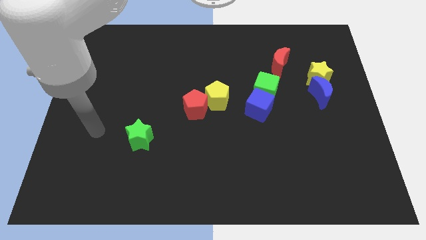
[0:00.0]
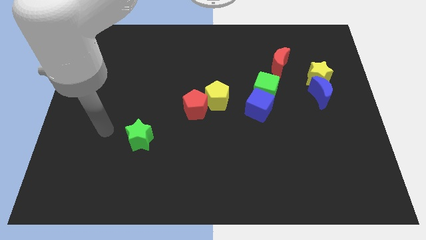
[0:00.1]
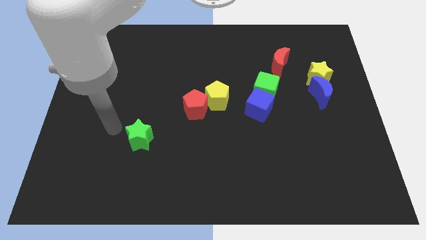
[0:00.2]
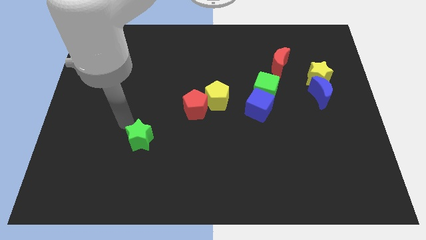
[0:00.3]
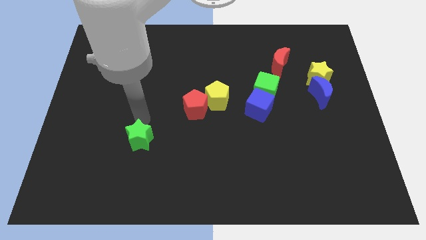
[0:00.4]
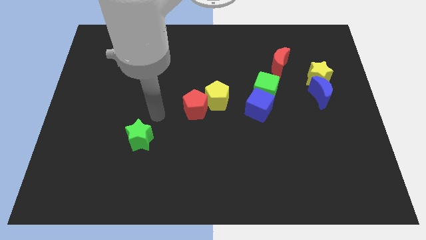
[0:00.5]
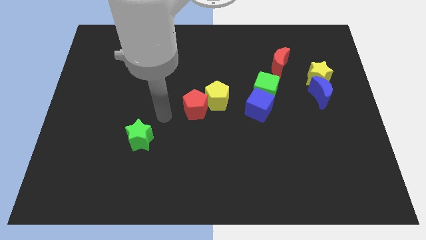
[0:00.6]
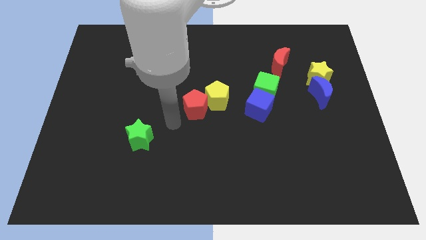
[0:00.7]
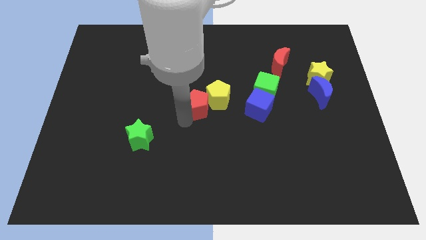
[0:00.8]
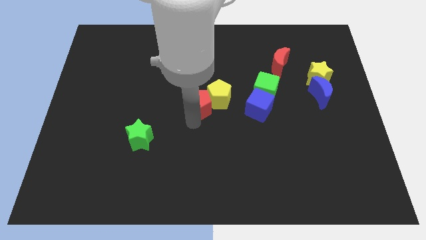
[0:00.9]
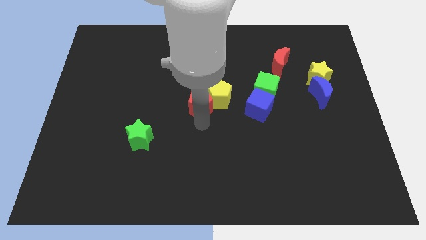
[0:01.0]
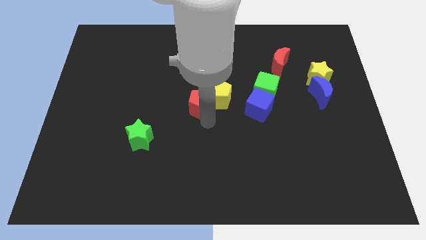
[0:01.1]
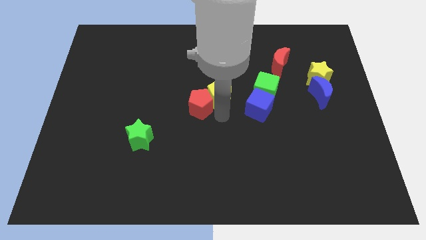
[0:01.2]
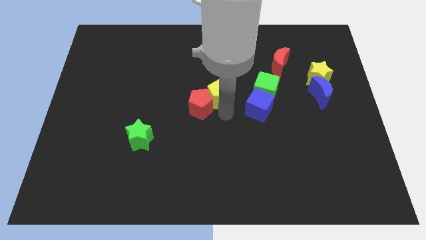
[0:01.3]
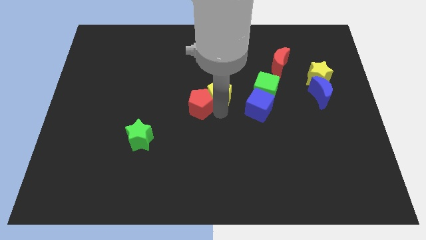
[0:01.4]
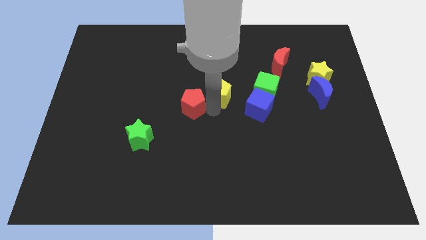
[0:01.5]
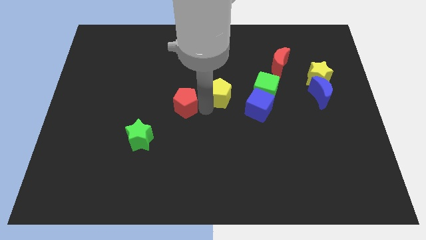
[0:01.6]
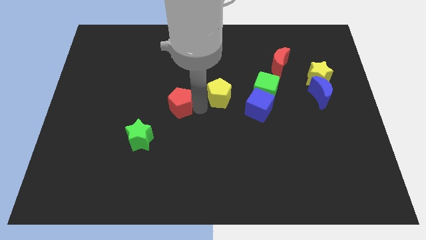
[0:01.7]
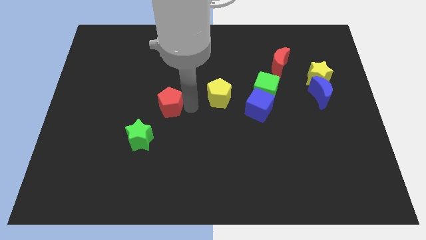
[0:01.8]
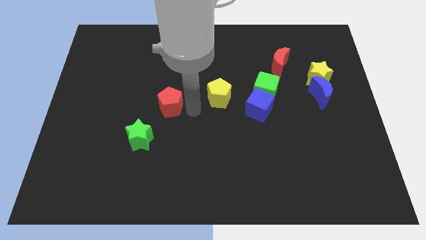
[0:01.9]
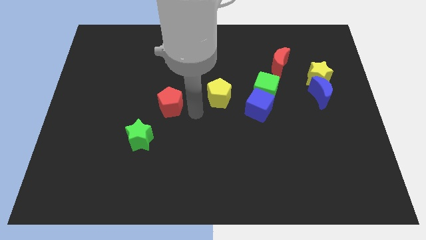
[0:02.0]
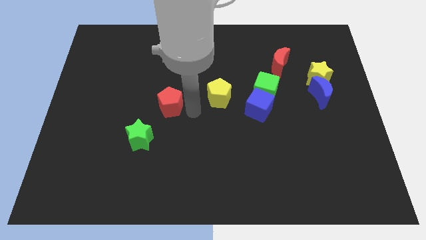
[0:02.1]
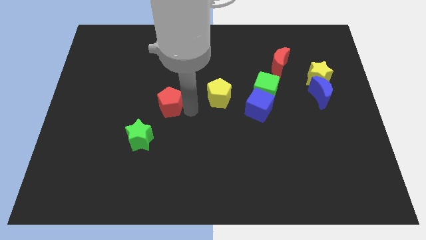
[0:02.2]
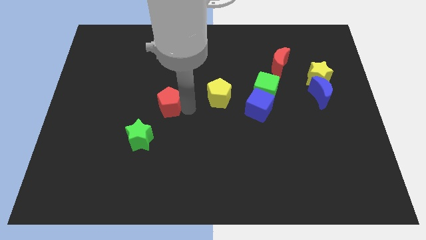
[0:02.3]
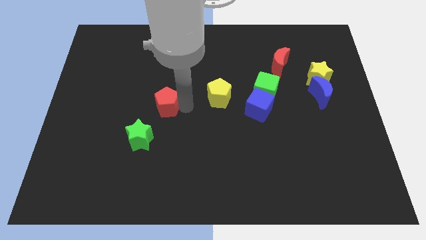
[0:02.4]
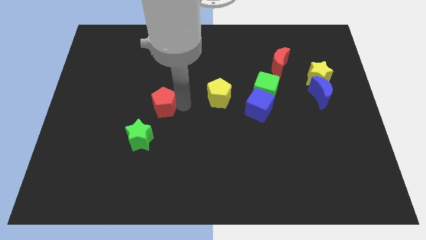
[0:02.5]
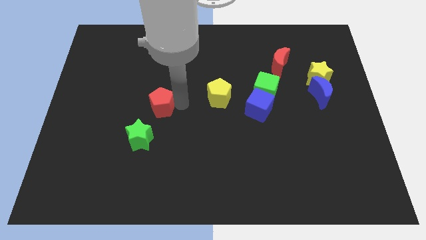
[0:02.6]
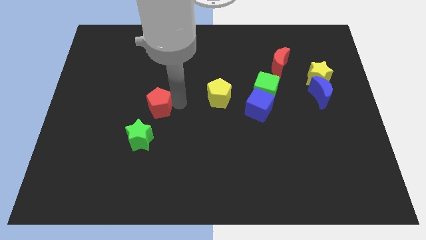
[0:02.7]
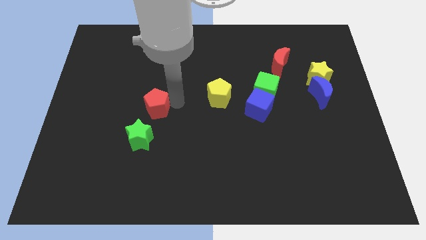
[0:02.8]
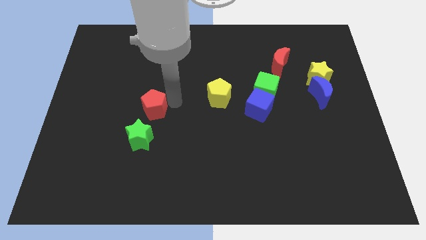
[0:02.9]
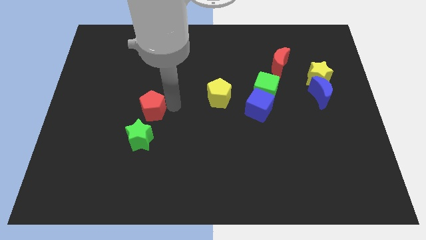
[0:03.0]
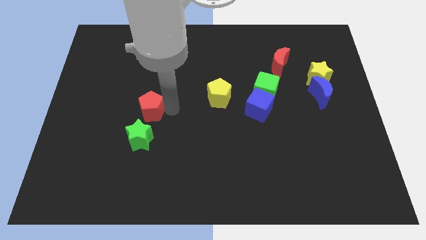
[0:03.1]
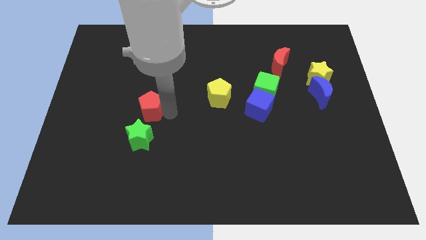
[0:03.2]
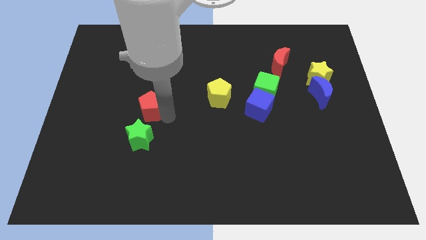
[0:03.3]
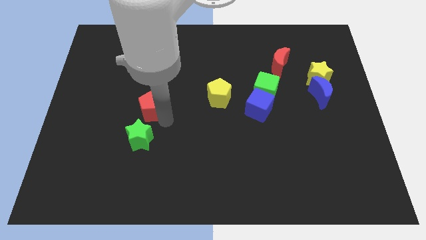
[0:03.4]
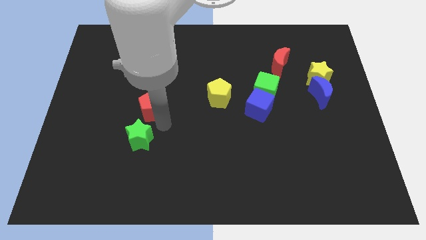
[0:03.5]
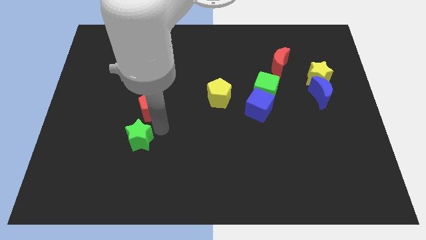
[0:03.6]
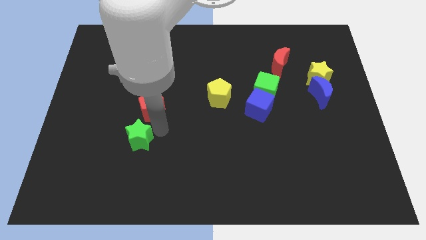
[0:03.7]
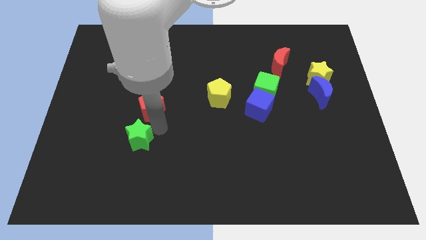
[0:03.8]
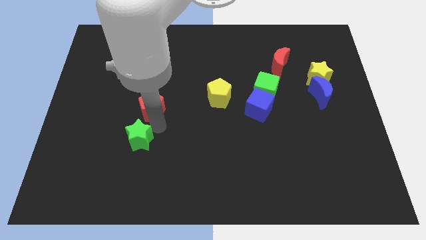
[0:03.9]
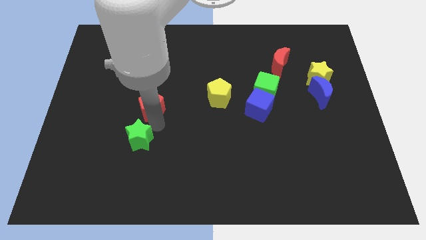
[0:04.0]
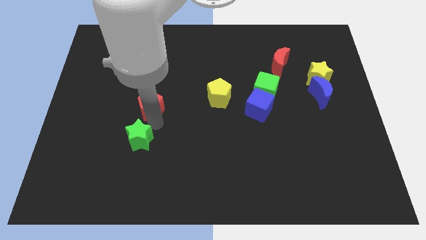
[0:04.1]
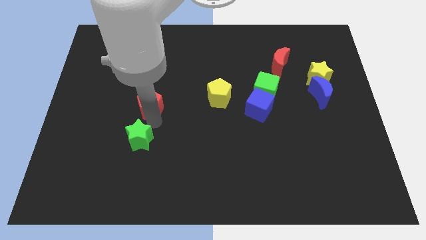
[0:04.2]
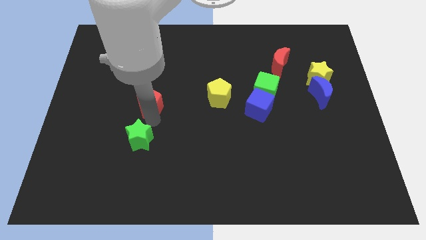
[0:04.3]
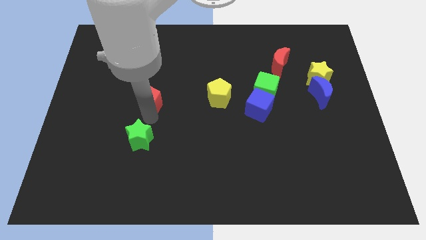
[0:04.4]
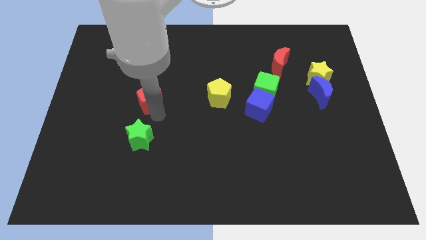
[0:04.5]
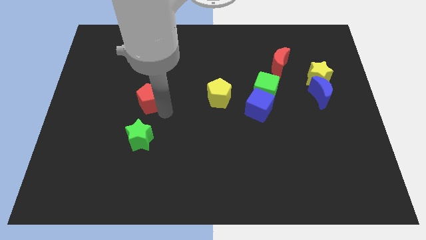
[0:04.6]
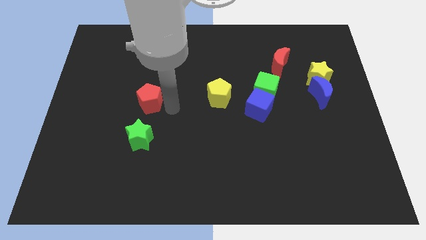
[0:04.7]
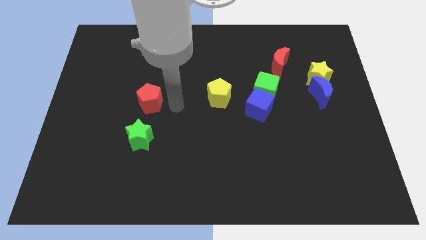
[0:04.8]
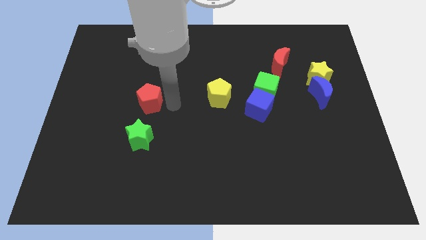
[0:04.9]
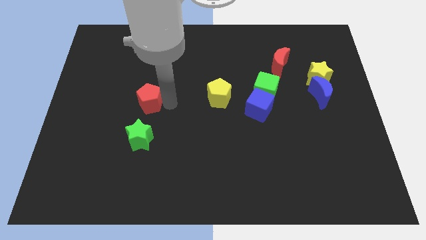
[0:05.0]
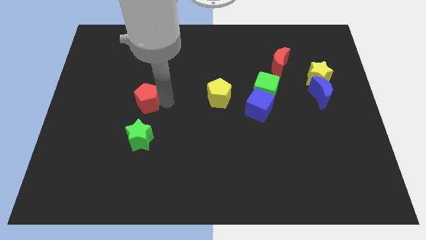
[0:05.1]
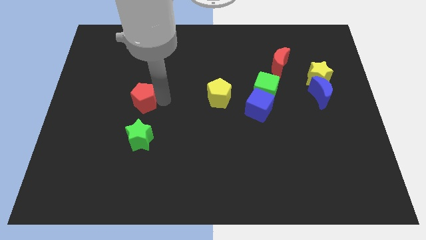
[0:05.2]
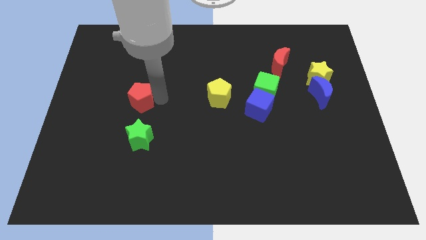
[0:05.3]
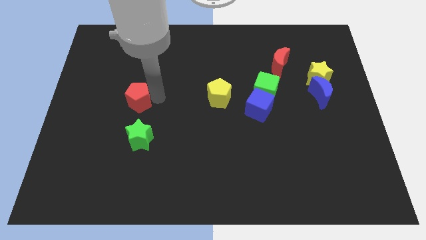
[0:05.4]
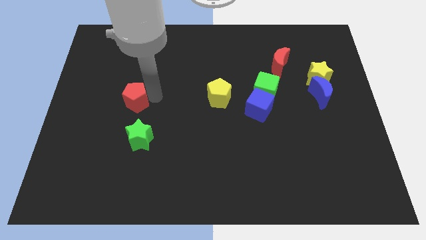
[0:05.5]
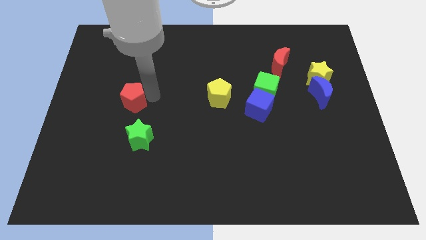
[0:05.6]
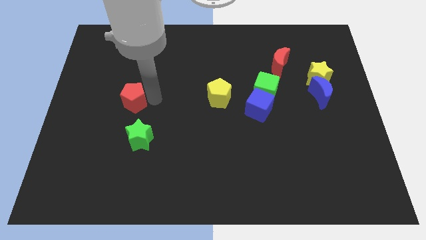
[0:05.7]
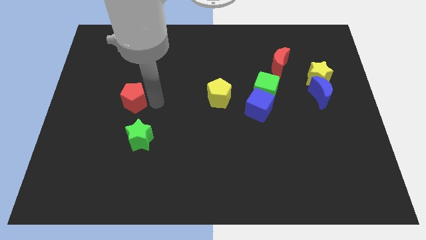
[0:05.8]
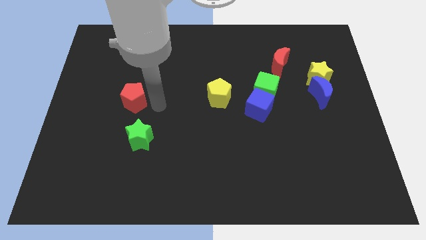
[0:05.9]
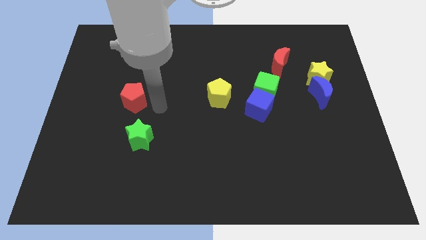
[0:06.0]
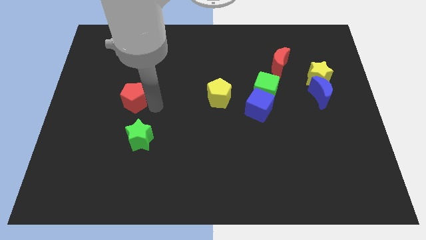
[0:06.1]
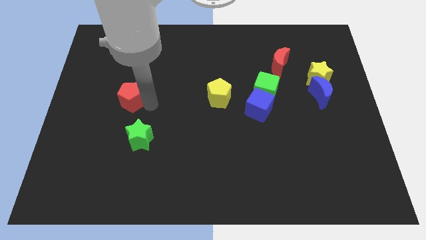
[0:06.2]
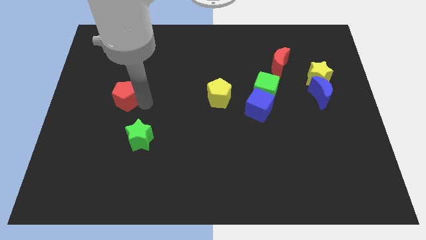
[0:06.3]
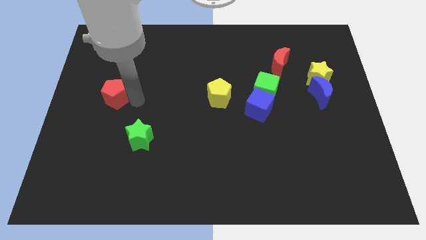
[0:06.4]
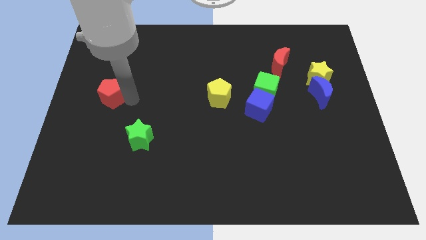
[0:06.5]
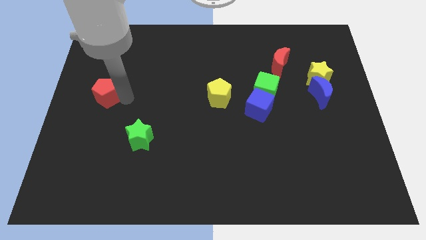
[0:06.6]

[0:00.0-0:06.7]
slide the red pentagon to the center left
